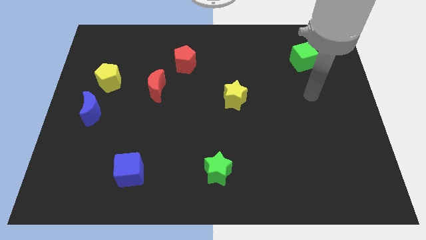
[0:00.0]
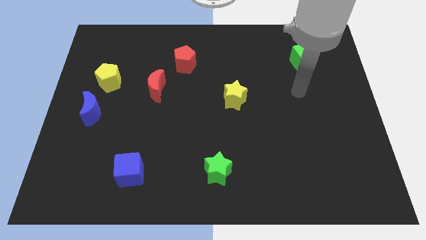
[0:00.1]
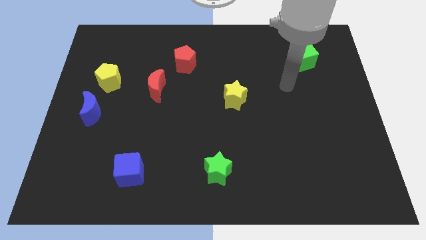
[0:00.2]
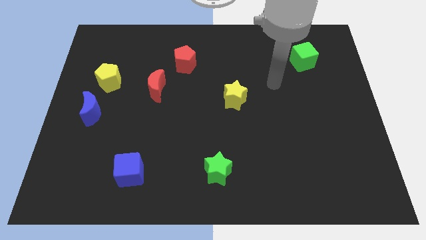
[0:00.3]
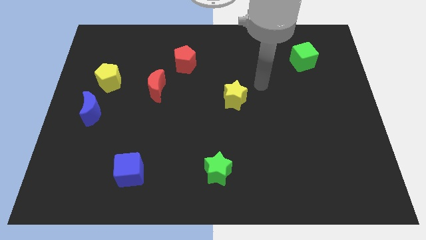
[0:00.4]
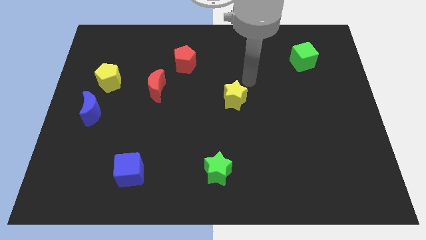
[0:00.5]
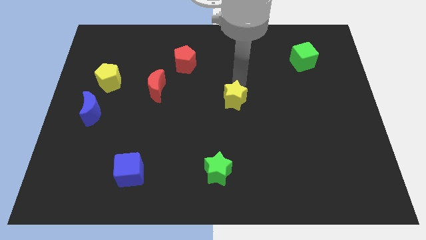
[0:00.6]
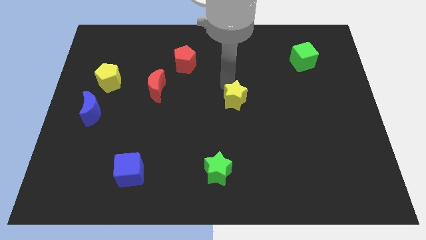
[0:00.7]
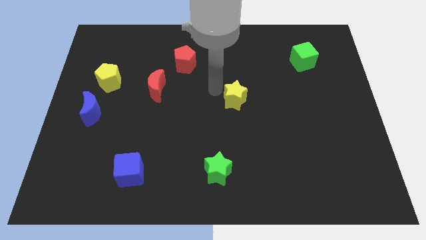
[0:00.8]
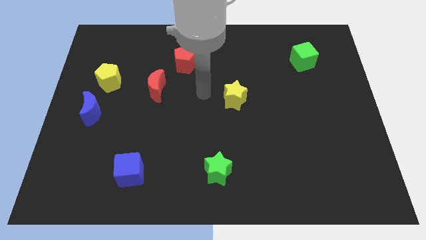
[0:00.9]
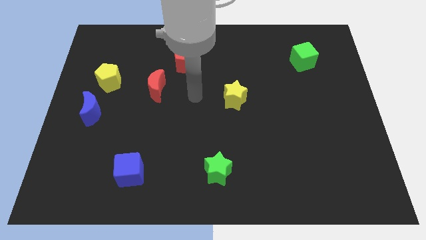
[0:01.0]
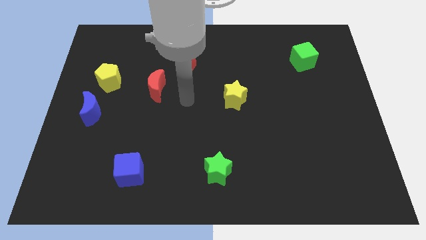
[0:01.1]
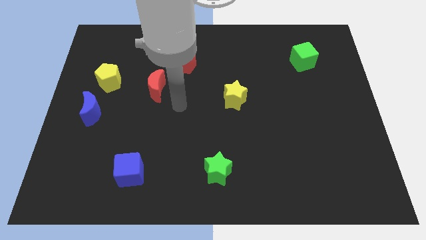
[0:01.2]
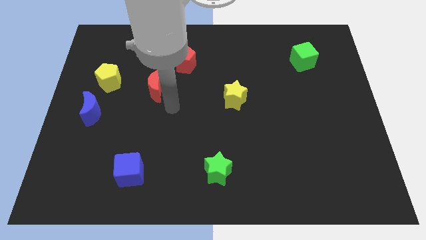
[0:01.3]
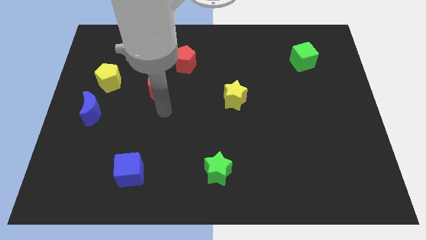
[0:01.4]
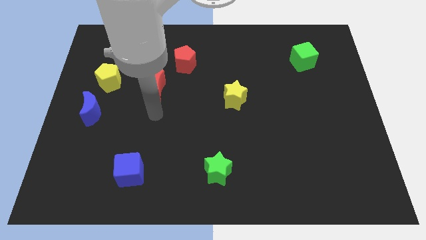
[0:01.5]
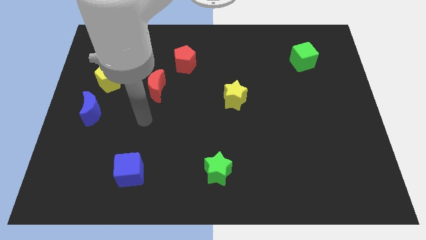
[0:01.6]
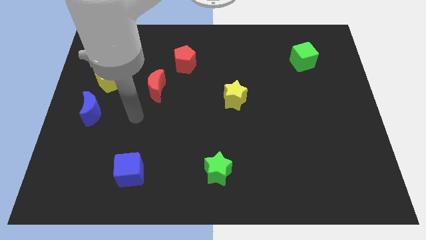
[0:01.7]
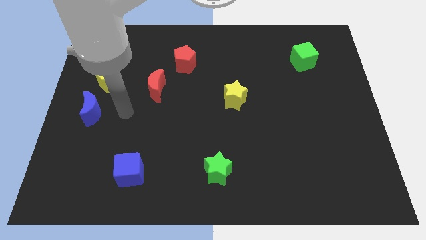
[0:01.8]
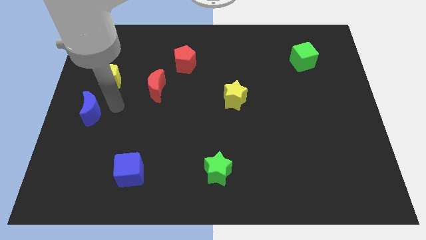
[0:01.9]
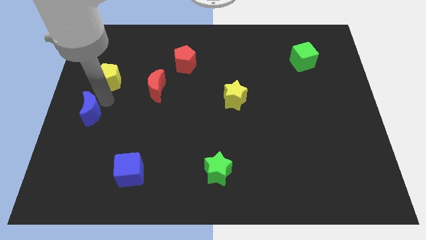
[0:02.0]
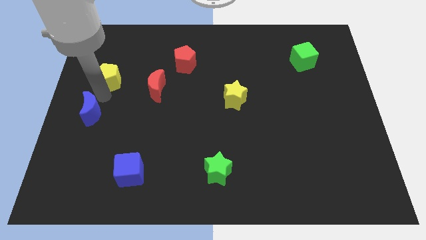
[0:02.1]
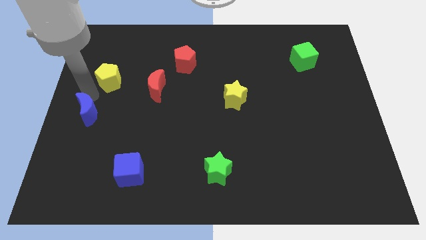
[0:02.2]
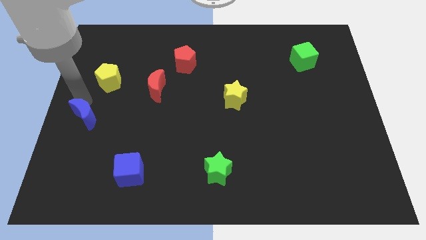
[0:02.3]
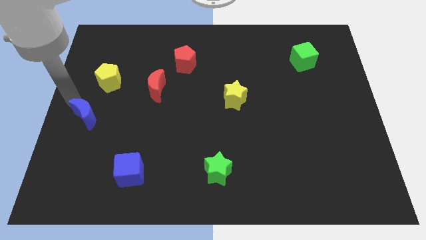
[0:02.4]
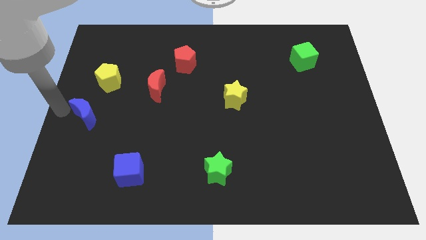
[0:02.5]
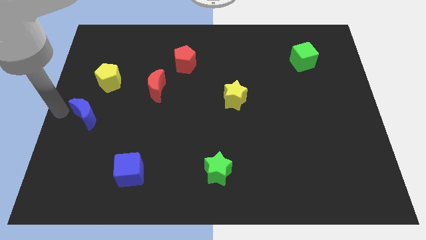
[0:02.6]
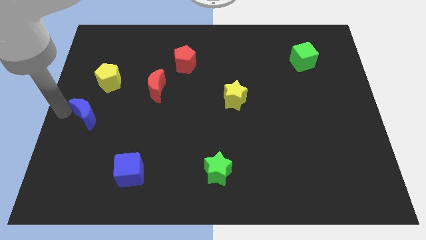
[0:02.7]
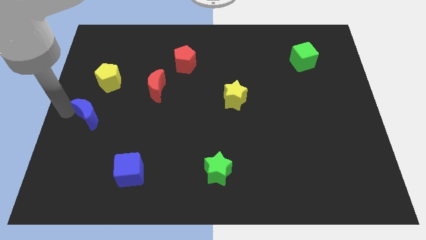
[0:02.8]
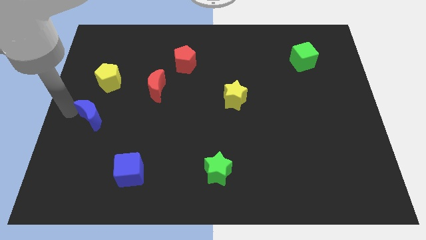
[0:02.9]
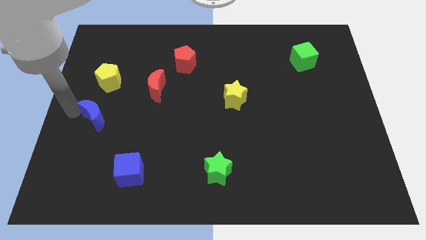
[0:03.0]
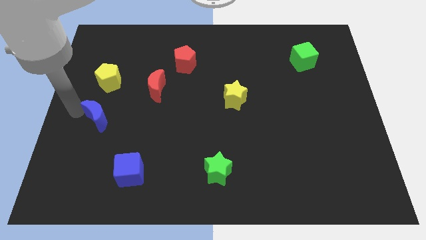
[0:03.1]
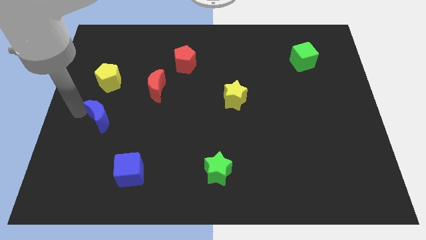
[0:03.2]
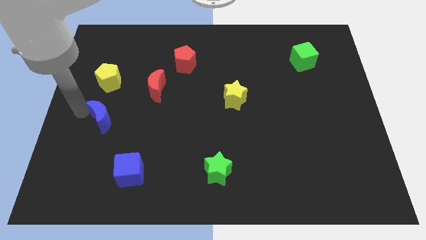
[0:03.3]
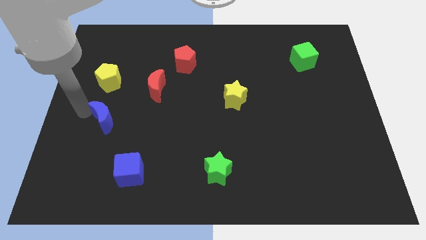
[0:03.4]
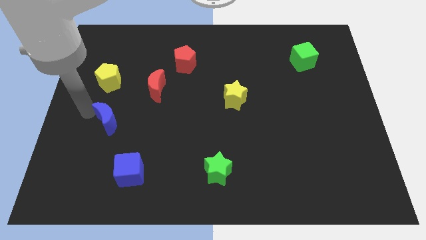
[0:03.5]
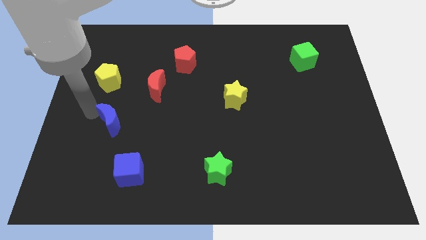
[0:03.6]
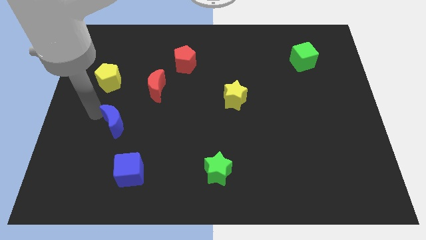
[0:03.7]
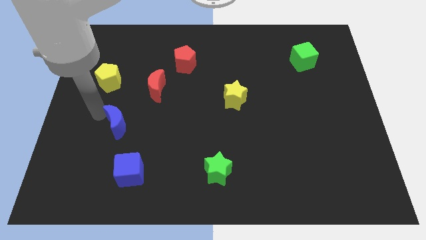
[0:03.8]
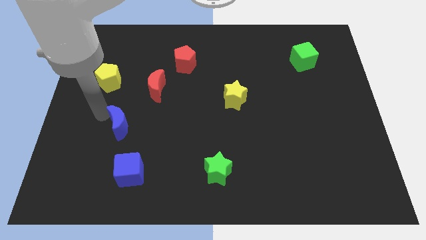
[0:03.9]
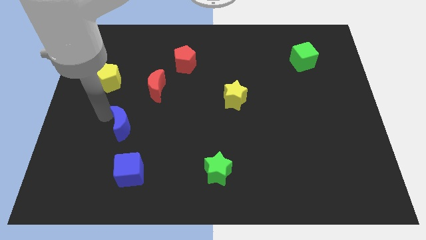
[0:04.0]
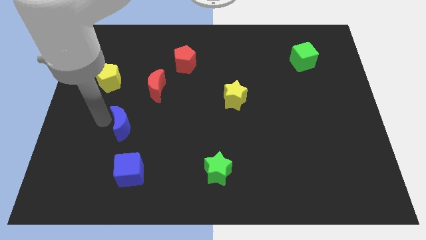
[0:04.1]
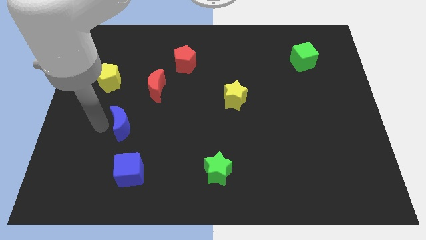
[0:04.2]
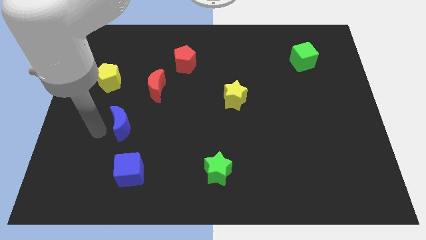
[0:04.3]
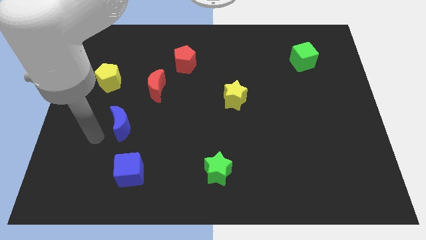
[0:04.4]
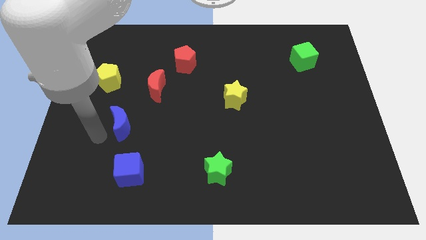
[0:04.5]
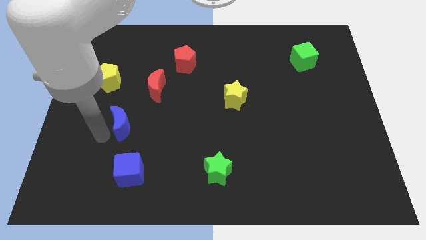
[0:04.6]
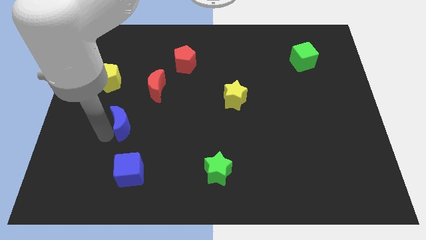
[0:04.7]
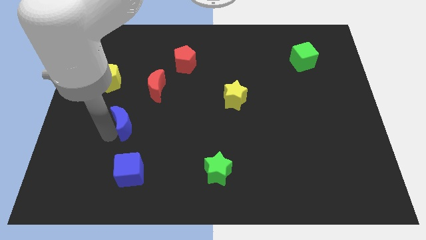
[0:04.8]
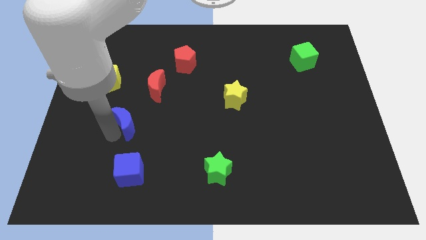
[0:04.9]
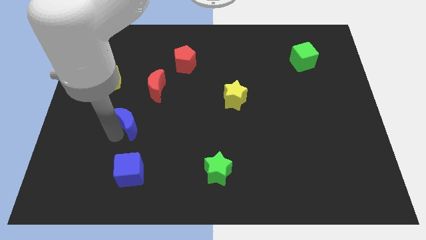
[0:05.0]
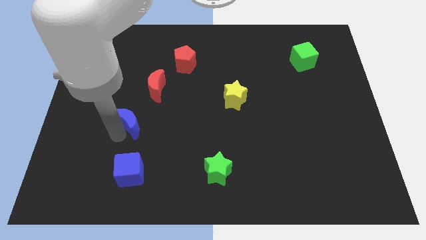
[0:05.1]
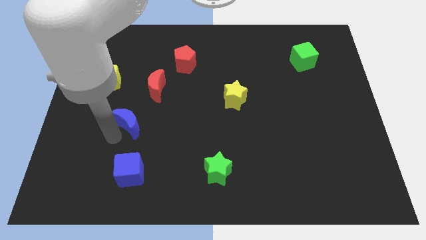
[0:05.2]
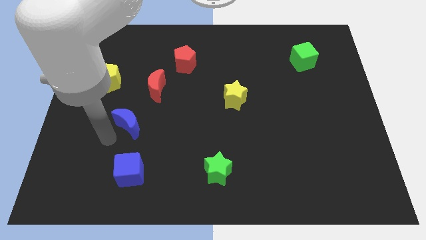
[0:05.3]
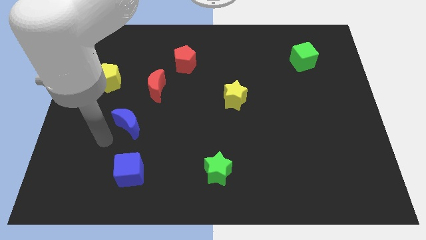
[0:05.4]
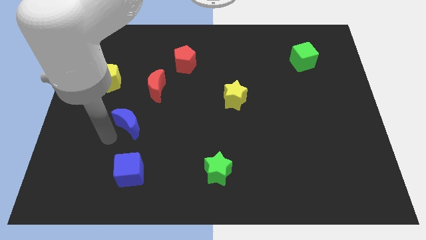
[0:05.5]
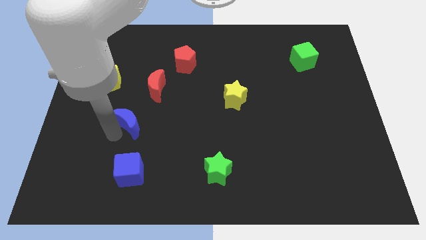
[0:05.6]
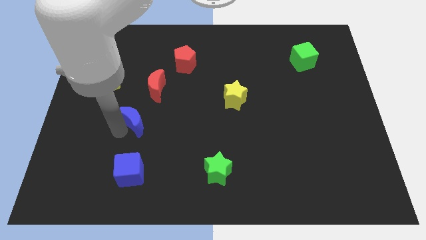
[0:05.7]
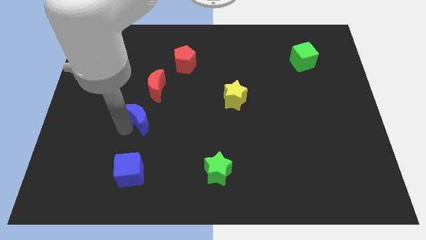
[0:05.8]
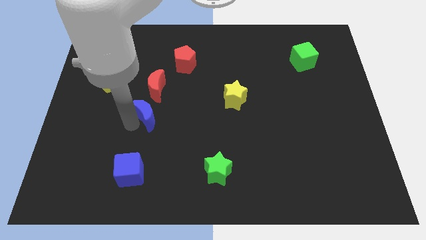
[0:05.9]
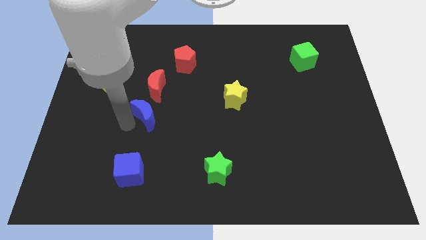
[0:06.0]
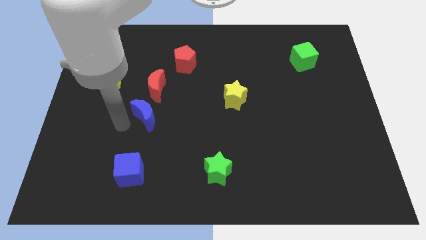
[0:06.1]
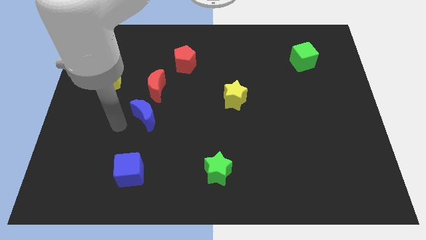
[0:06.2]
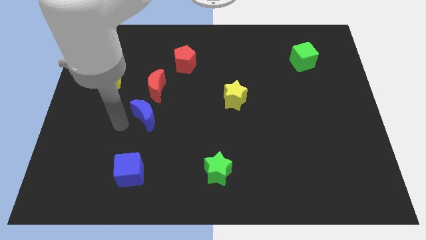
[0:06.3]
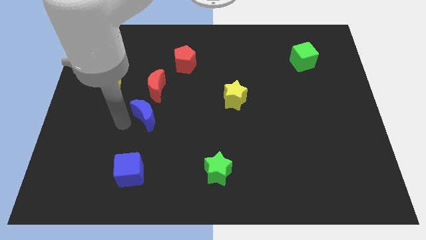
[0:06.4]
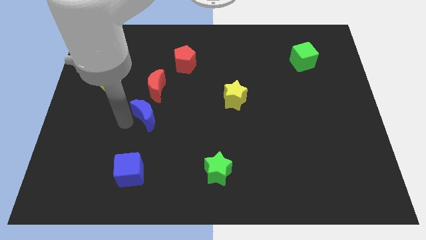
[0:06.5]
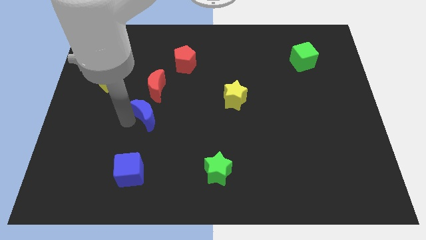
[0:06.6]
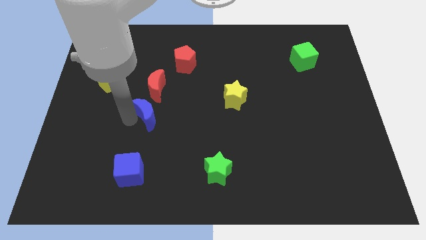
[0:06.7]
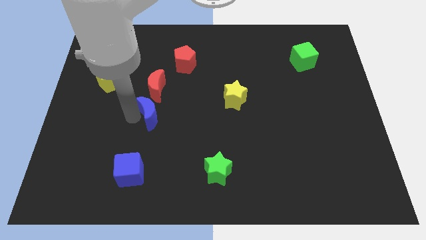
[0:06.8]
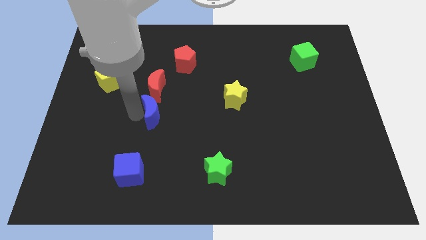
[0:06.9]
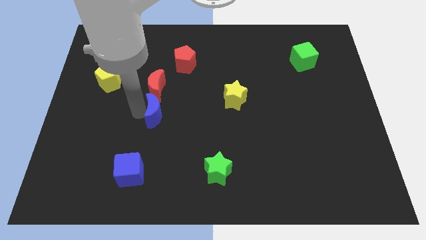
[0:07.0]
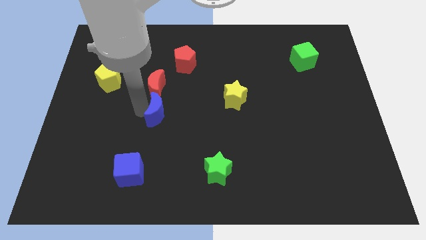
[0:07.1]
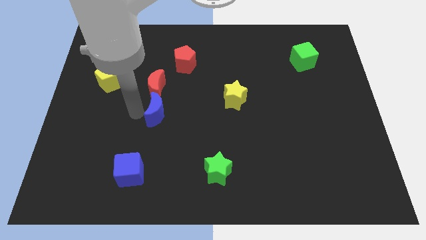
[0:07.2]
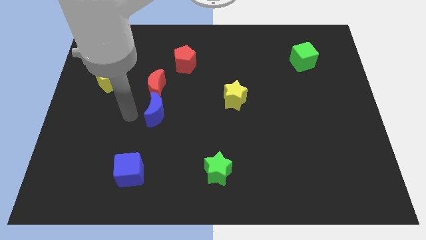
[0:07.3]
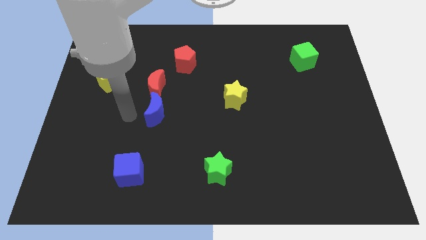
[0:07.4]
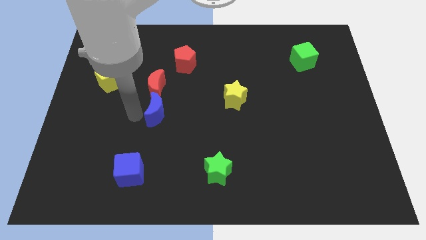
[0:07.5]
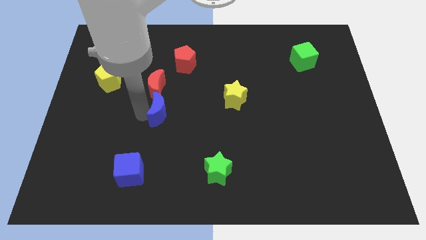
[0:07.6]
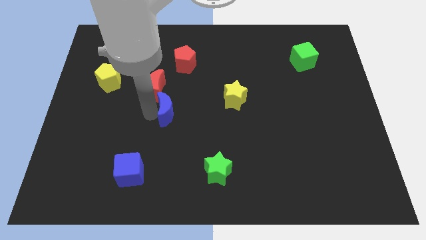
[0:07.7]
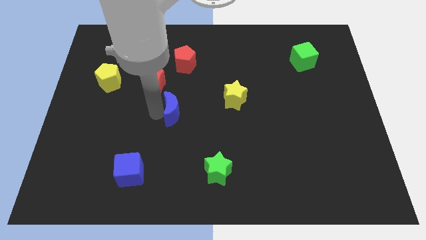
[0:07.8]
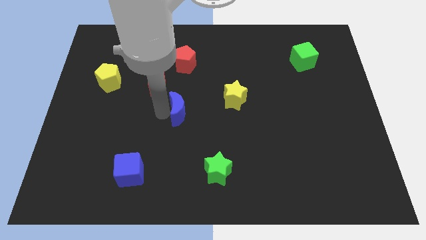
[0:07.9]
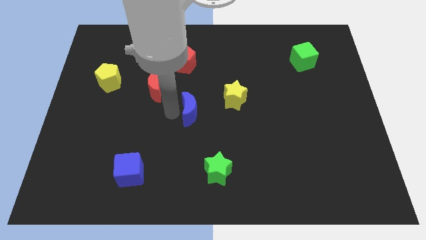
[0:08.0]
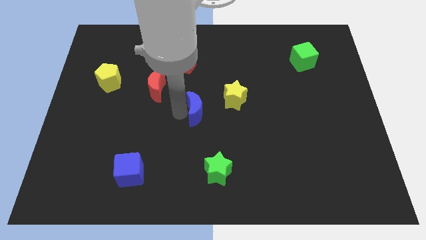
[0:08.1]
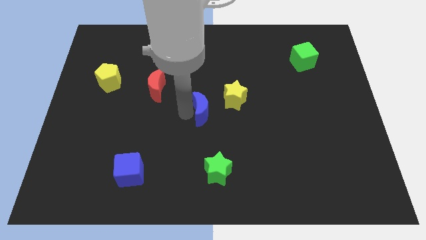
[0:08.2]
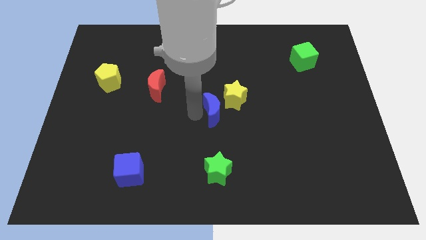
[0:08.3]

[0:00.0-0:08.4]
put the blue moon towards the yellow star
